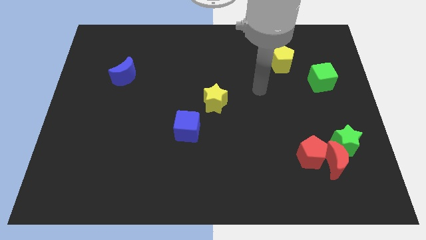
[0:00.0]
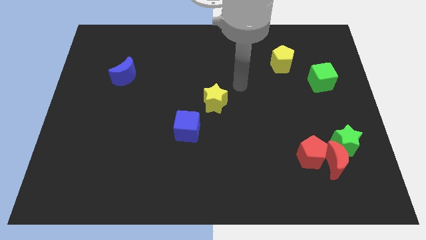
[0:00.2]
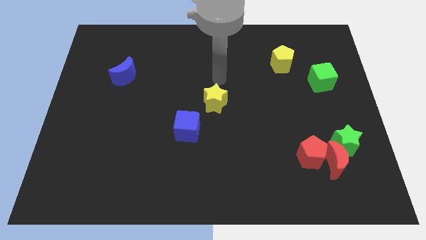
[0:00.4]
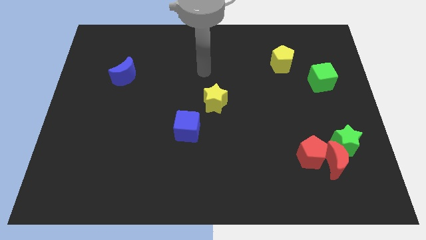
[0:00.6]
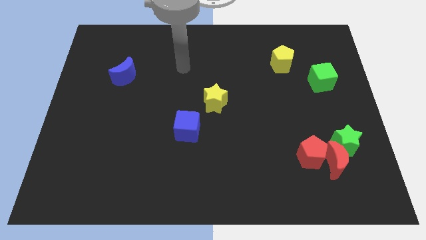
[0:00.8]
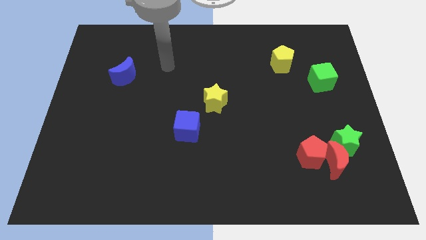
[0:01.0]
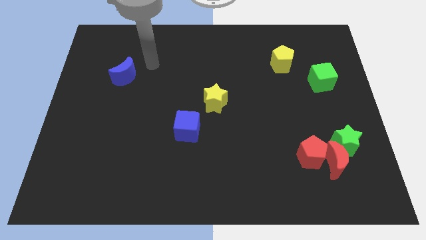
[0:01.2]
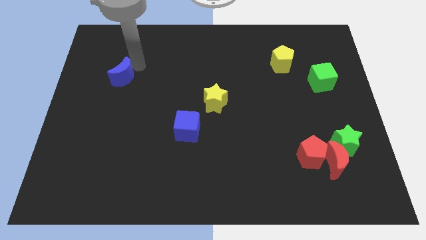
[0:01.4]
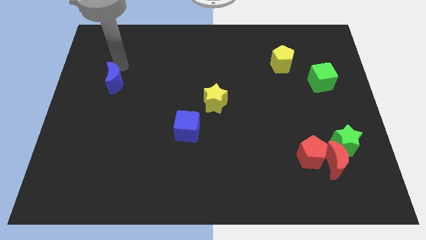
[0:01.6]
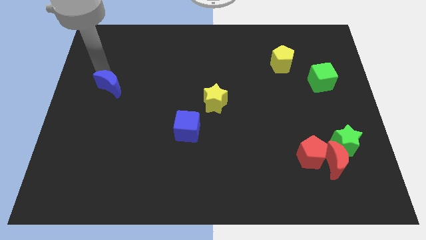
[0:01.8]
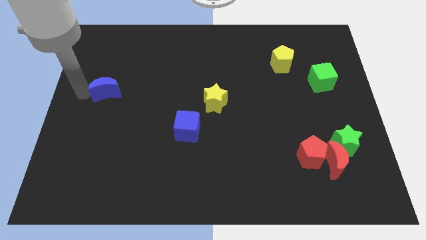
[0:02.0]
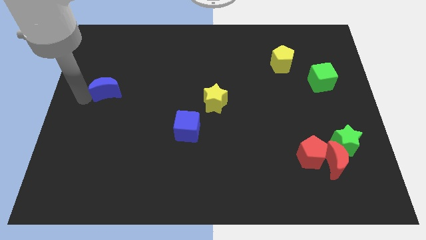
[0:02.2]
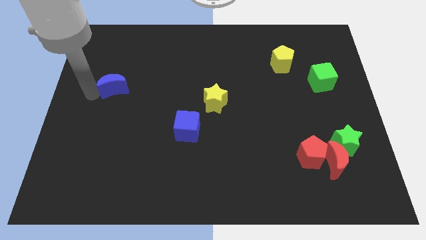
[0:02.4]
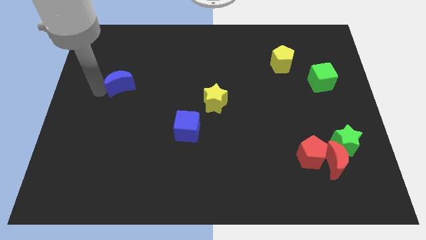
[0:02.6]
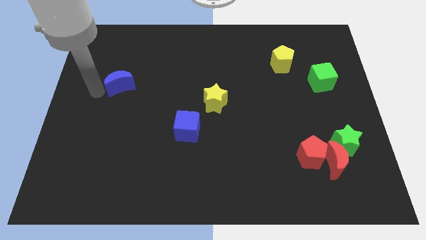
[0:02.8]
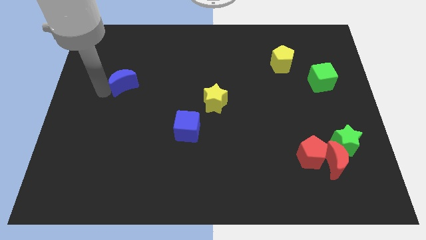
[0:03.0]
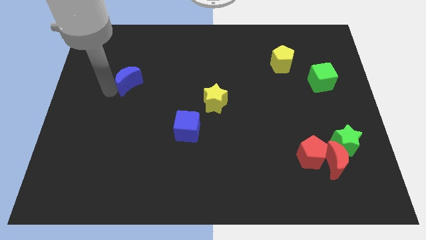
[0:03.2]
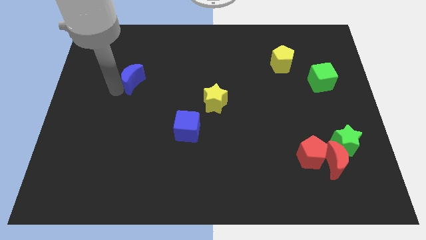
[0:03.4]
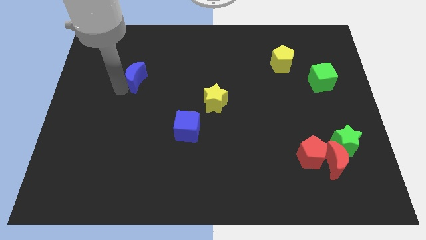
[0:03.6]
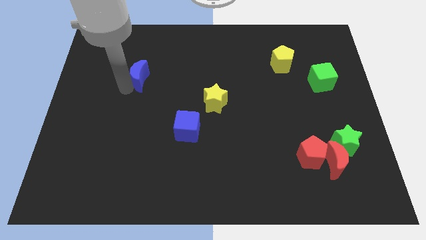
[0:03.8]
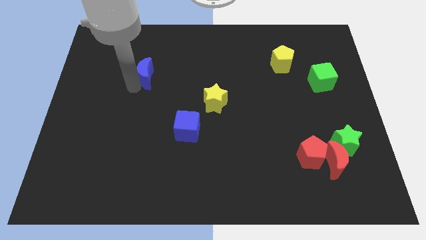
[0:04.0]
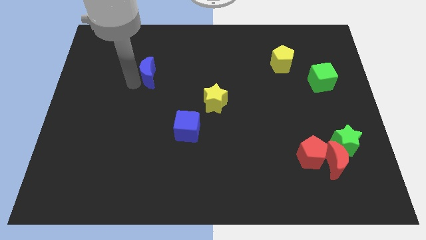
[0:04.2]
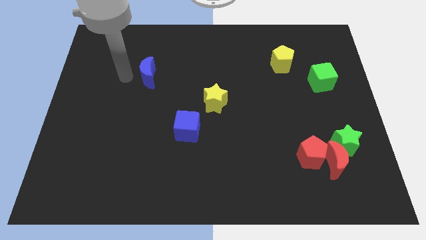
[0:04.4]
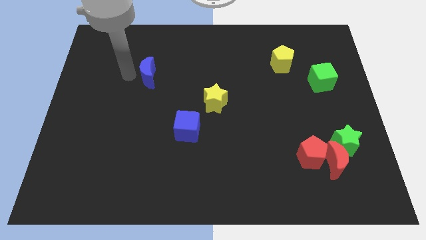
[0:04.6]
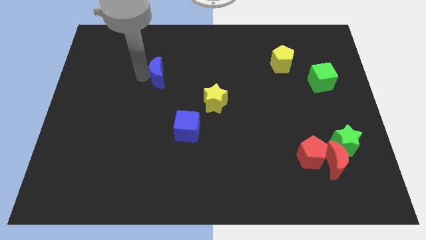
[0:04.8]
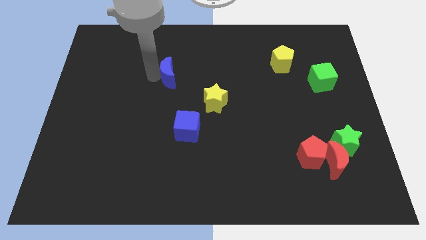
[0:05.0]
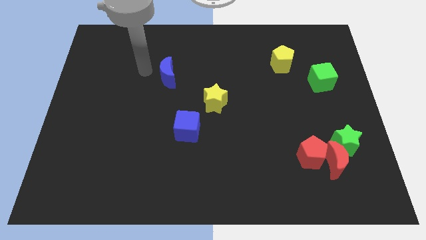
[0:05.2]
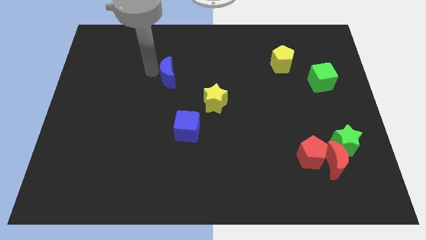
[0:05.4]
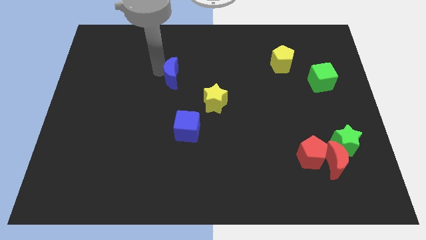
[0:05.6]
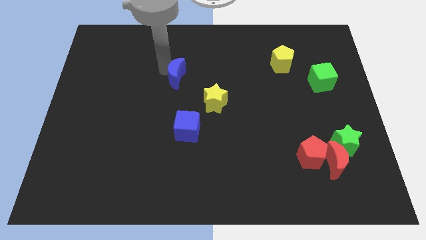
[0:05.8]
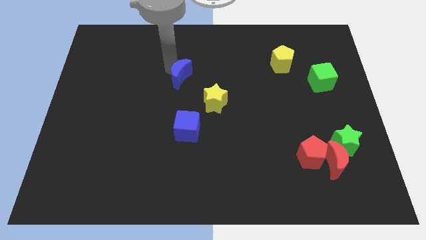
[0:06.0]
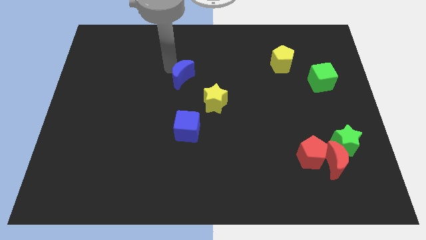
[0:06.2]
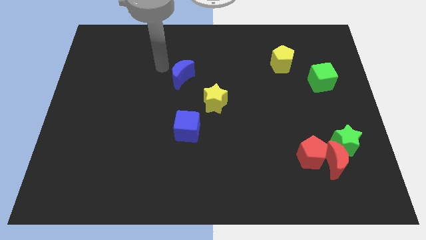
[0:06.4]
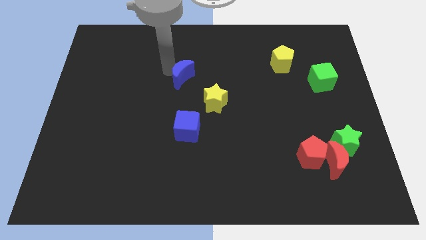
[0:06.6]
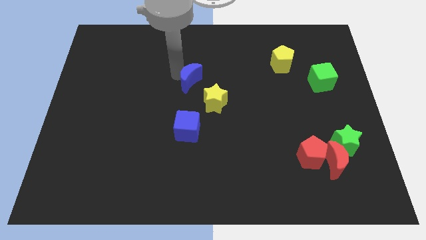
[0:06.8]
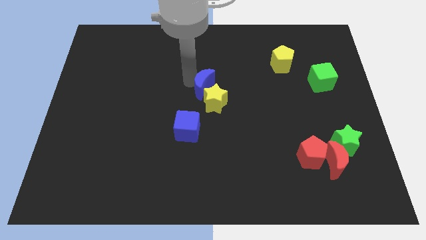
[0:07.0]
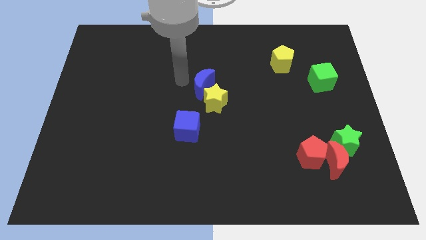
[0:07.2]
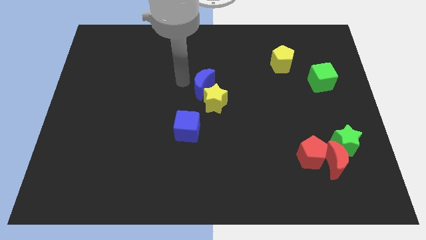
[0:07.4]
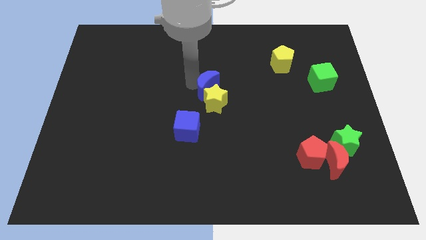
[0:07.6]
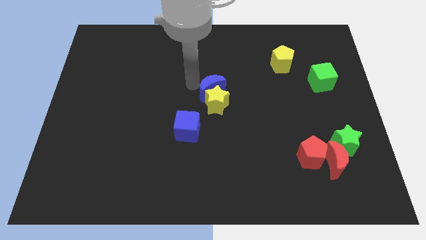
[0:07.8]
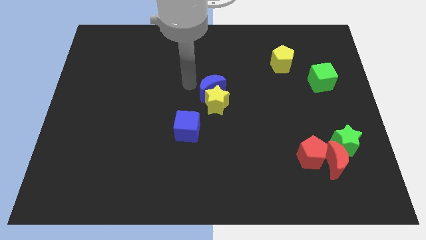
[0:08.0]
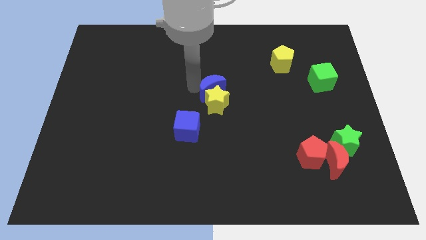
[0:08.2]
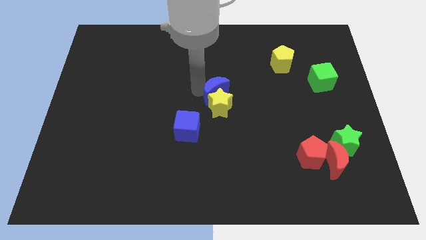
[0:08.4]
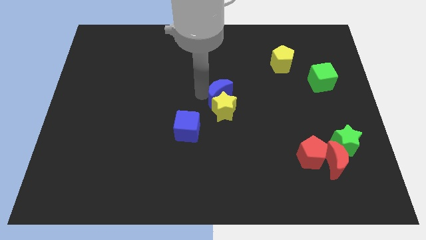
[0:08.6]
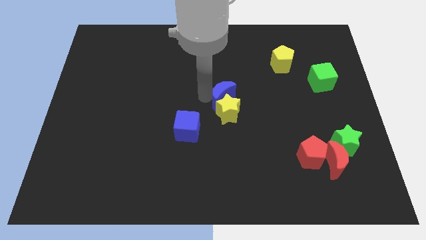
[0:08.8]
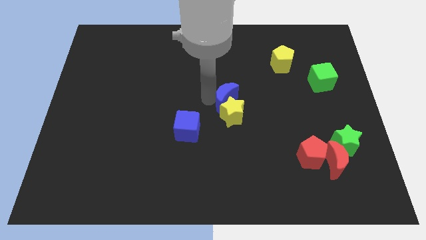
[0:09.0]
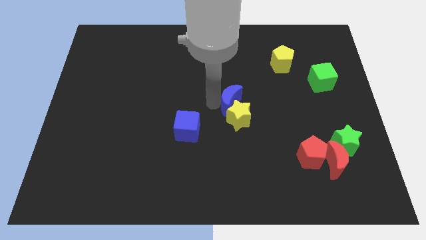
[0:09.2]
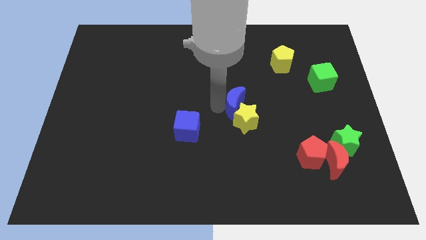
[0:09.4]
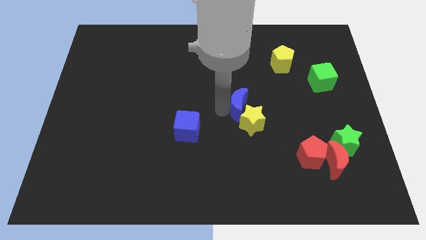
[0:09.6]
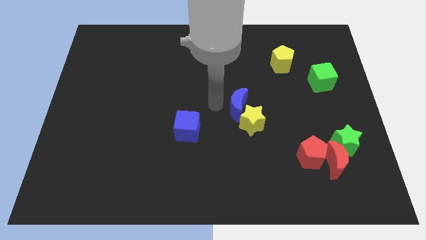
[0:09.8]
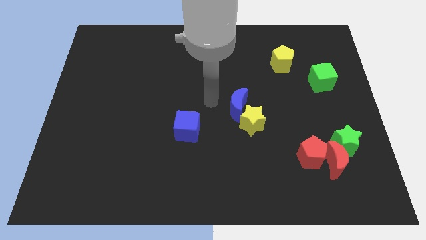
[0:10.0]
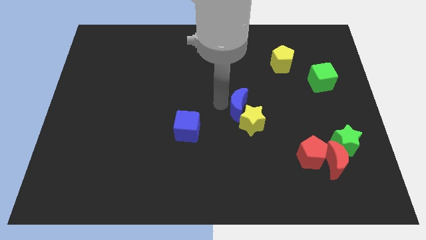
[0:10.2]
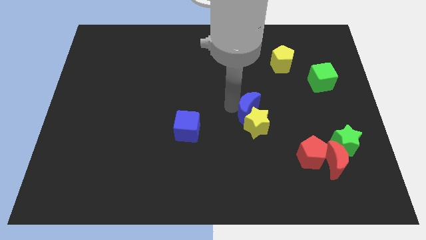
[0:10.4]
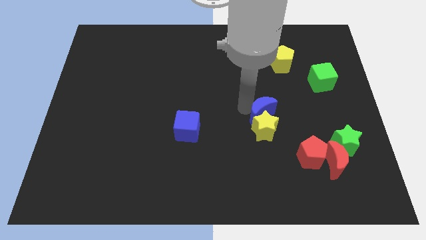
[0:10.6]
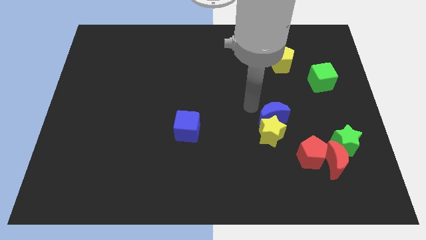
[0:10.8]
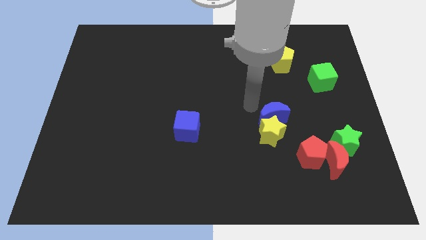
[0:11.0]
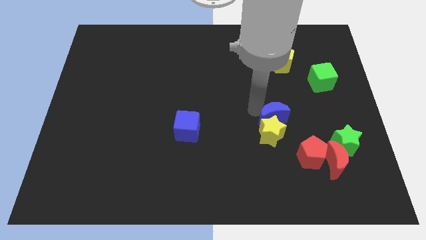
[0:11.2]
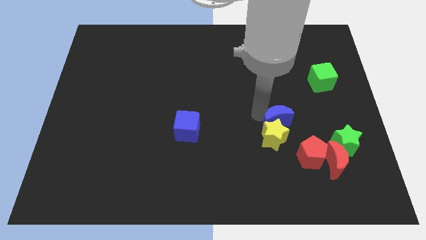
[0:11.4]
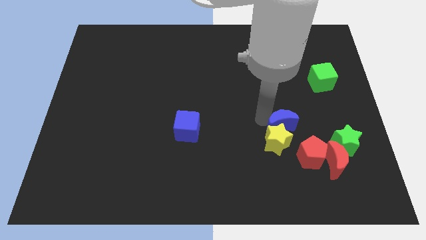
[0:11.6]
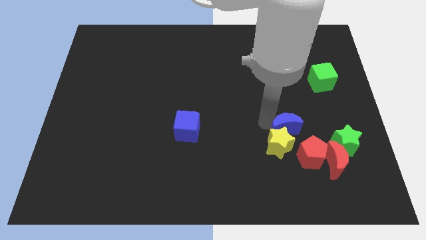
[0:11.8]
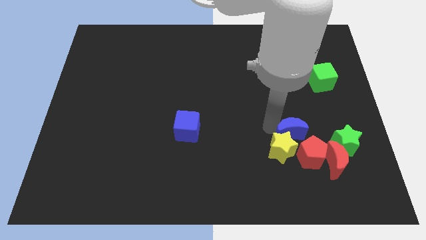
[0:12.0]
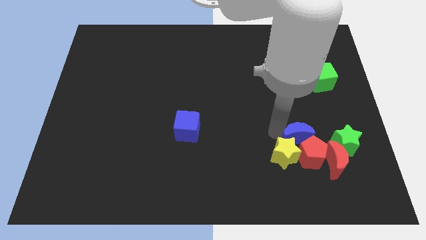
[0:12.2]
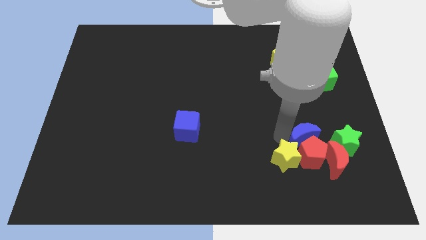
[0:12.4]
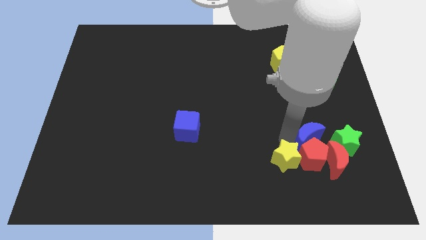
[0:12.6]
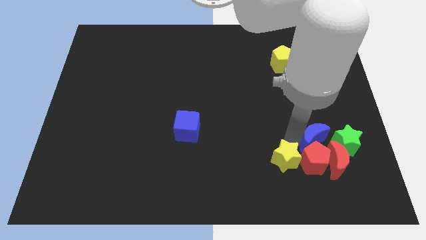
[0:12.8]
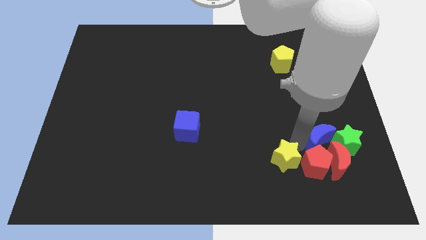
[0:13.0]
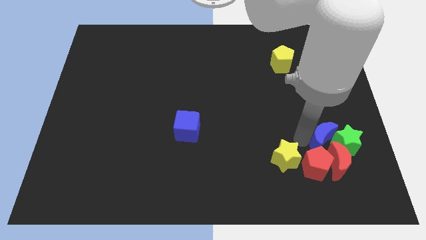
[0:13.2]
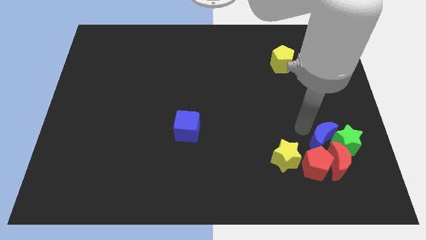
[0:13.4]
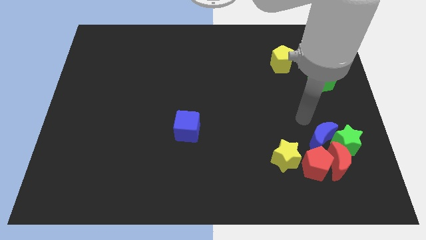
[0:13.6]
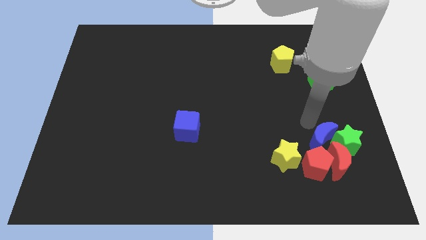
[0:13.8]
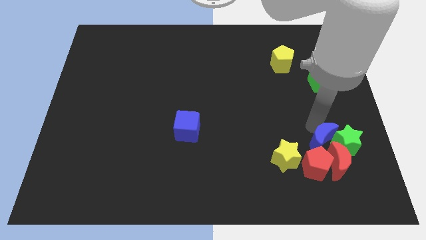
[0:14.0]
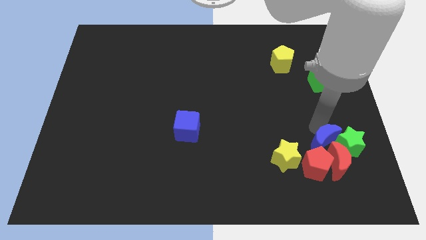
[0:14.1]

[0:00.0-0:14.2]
push the blue moon next to the red moon
